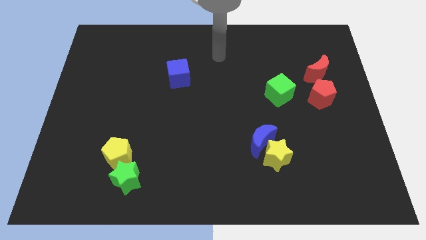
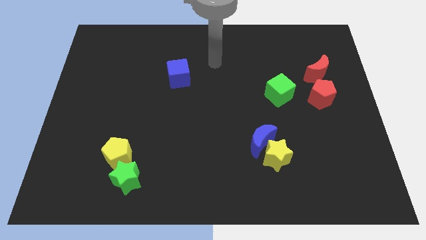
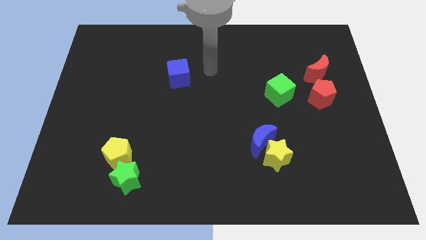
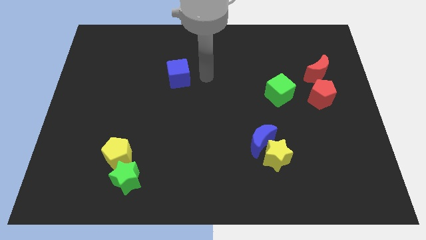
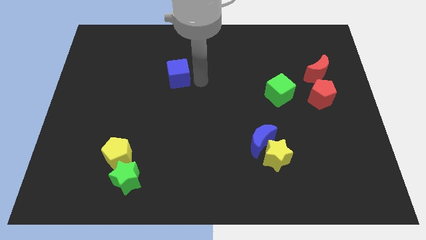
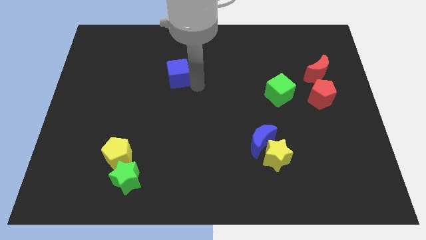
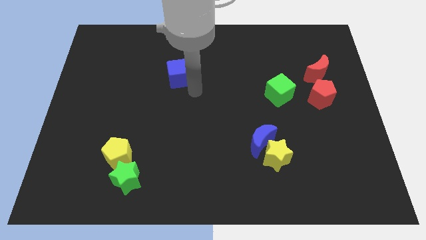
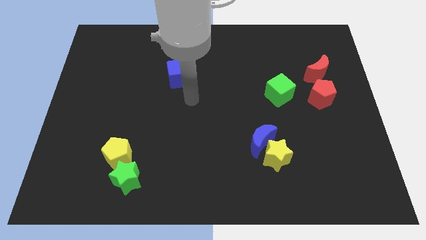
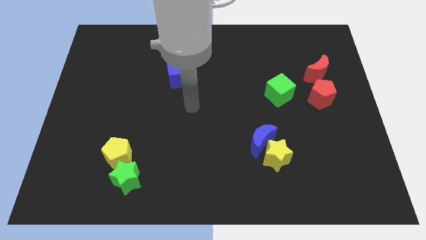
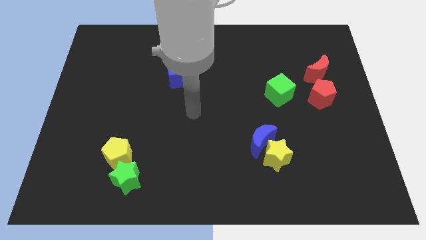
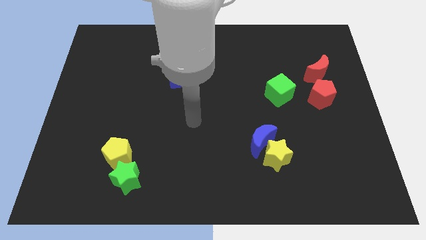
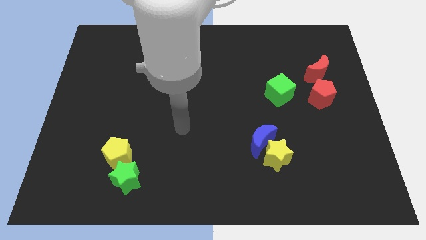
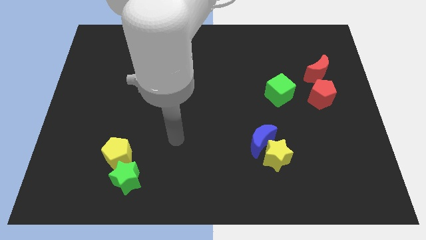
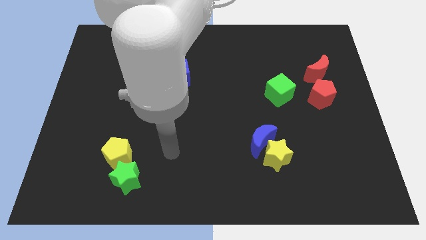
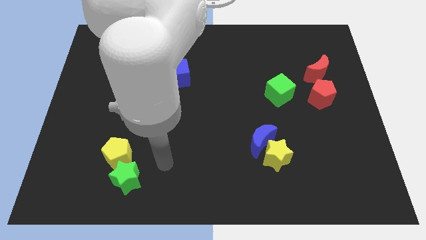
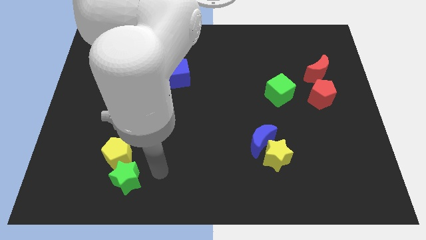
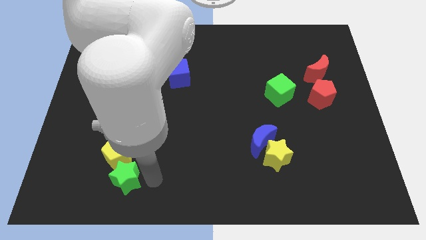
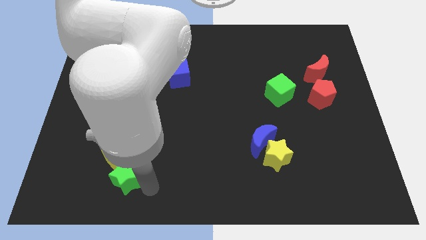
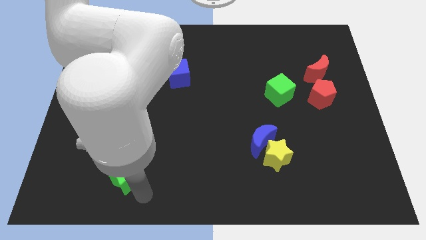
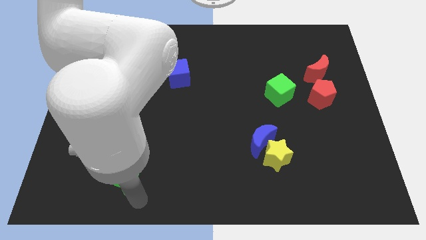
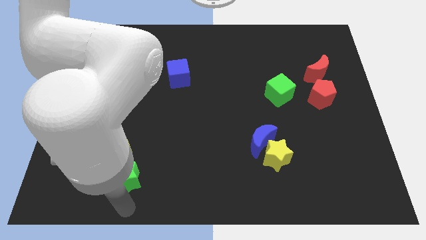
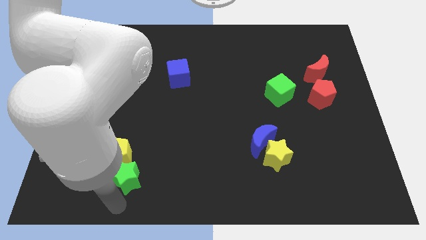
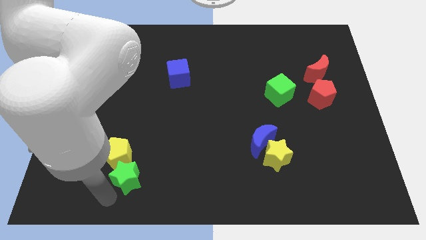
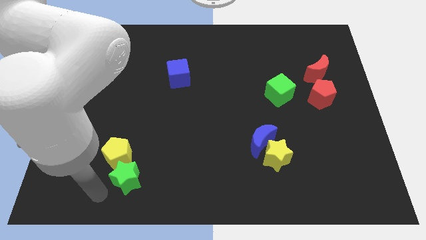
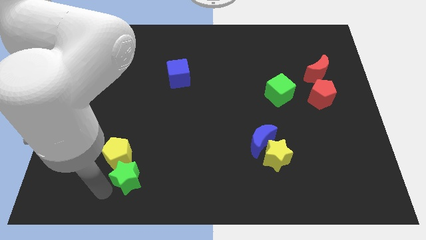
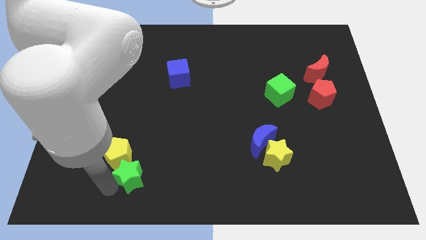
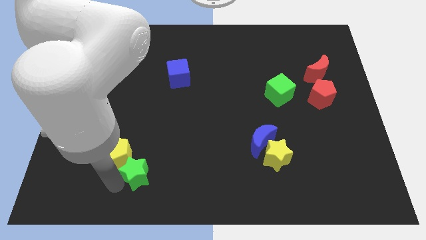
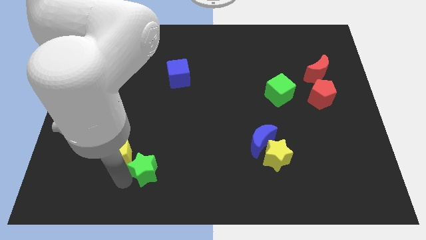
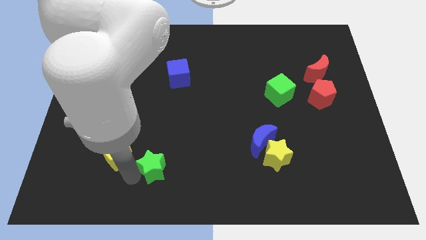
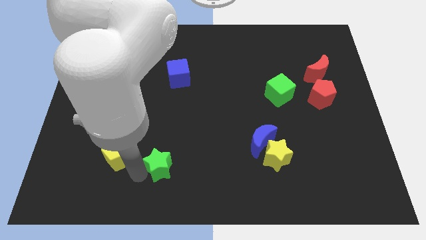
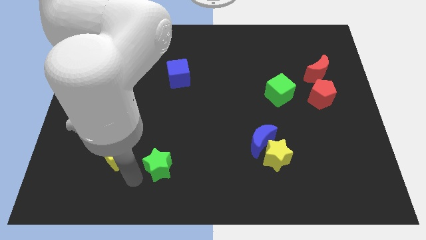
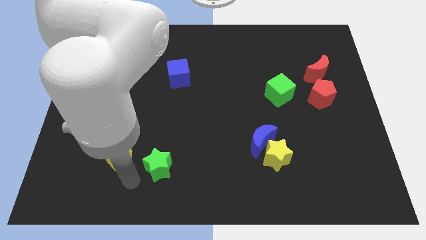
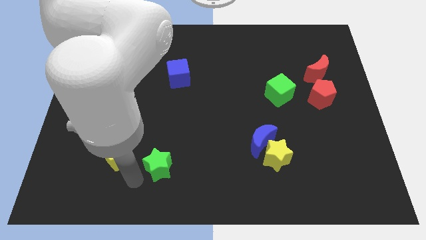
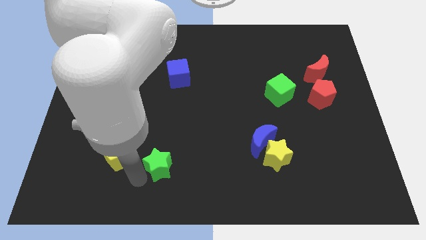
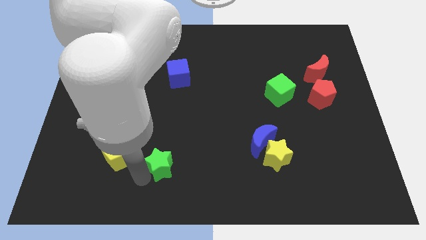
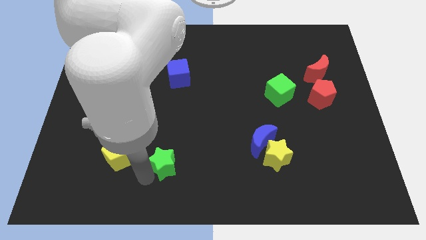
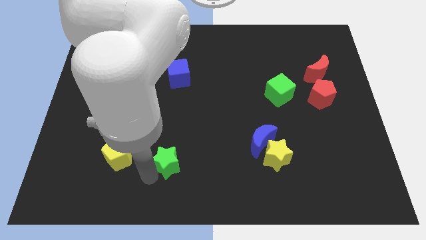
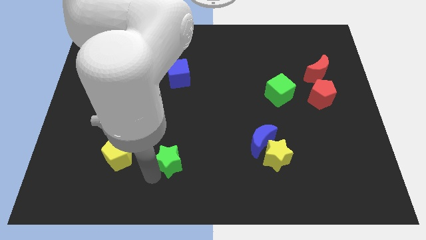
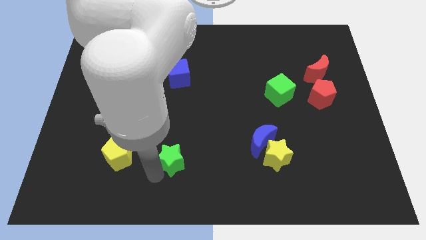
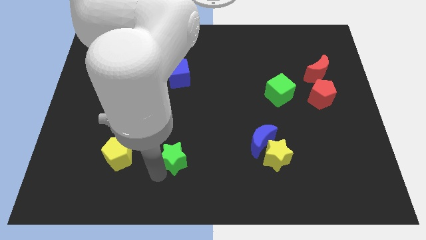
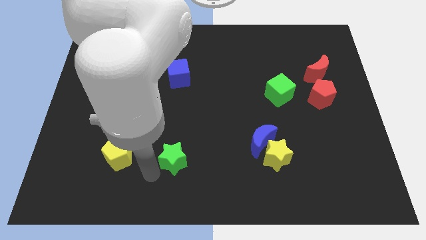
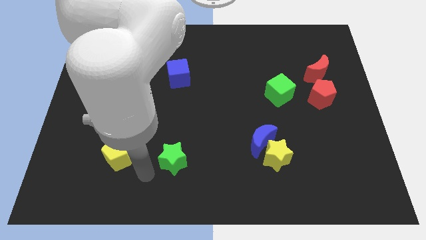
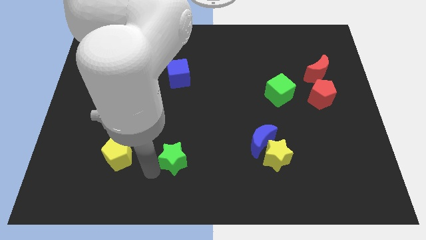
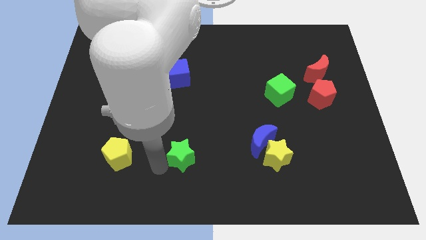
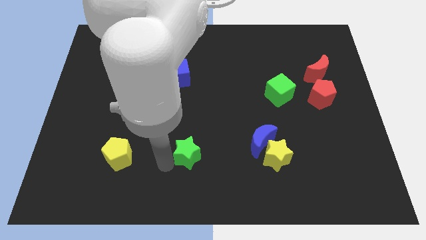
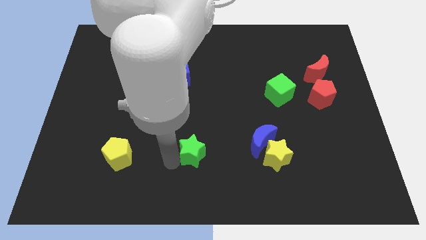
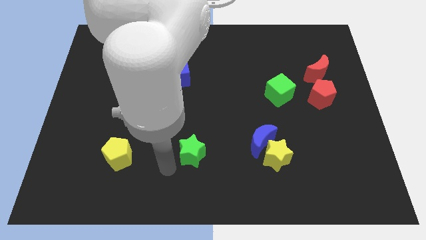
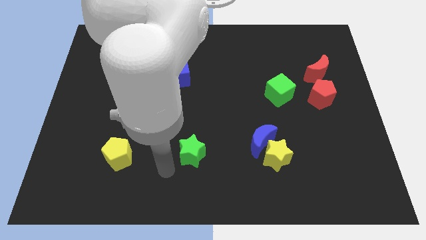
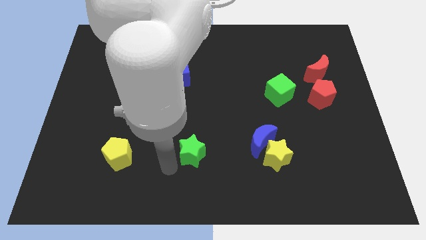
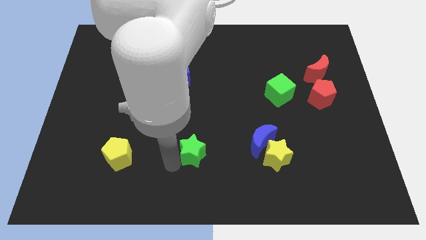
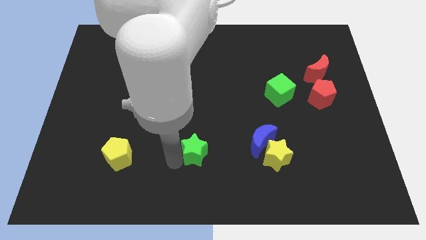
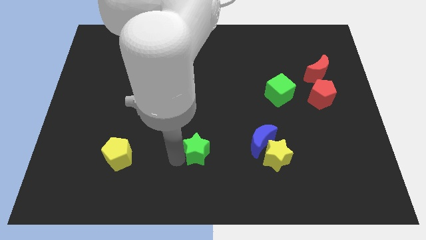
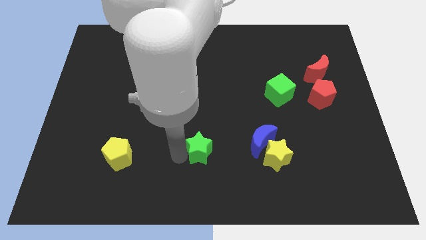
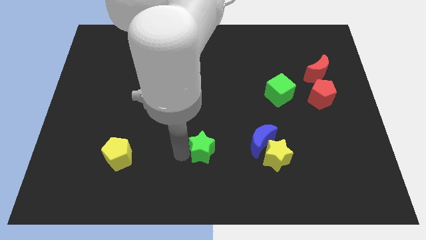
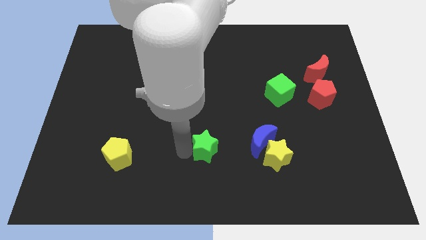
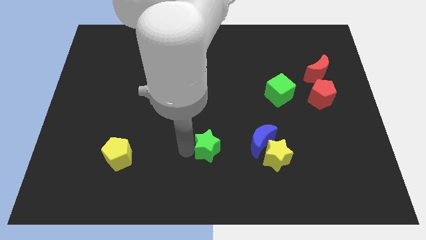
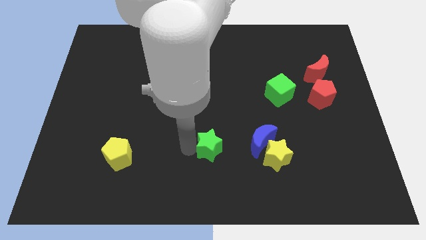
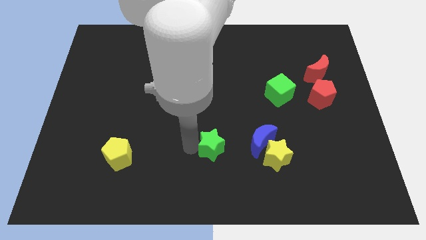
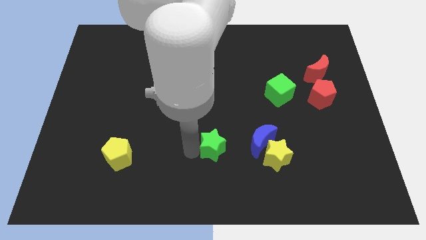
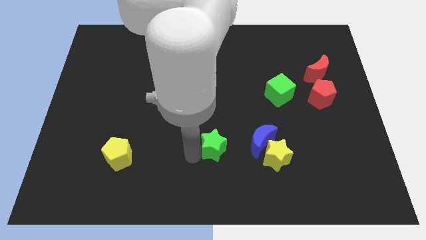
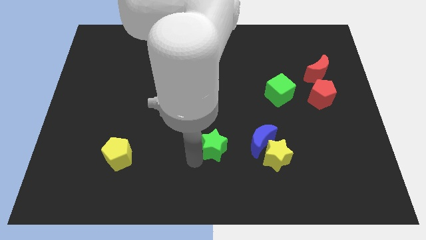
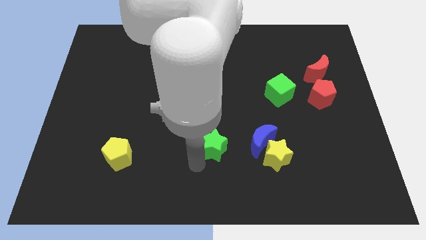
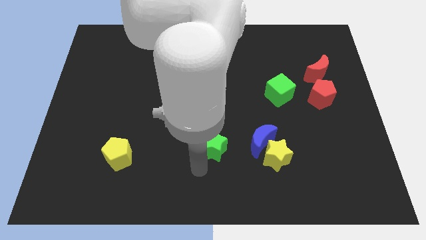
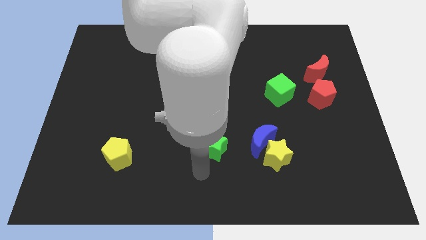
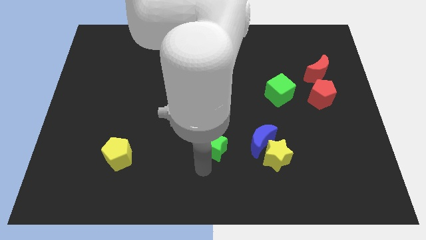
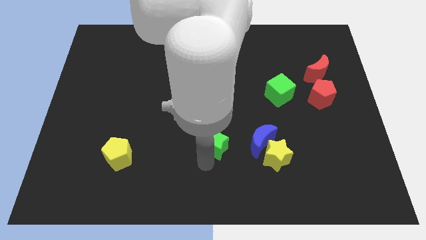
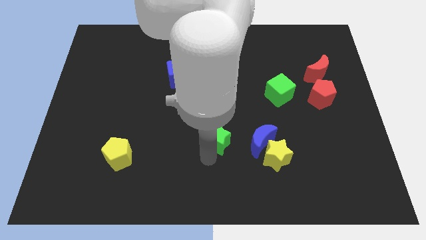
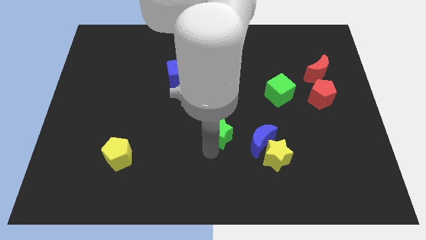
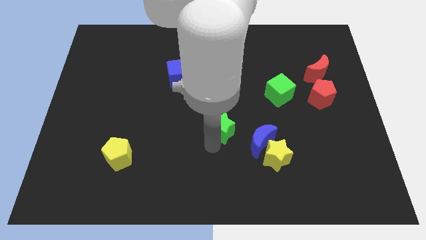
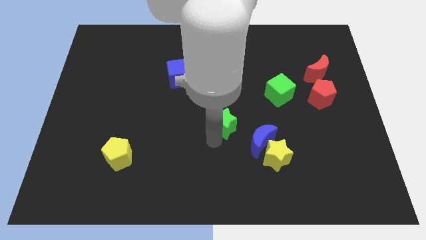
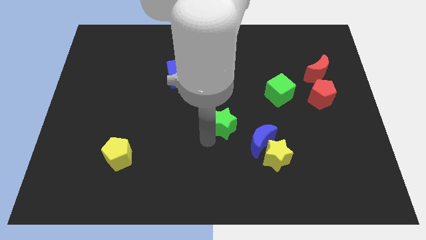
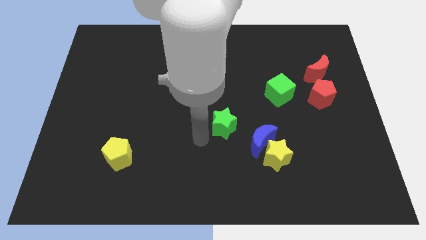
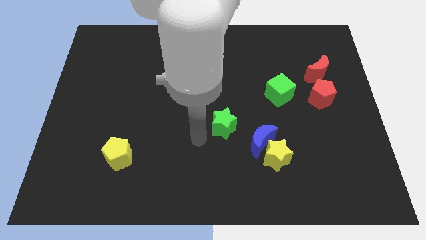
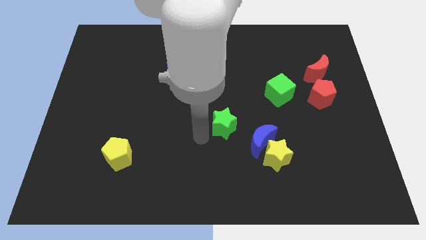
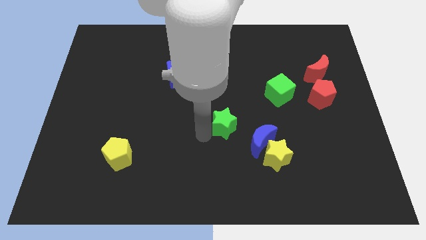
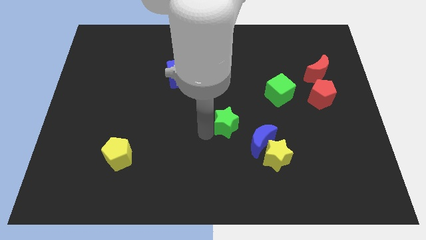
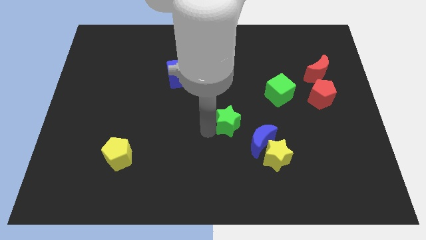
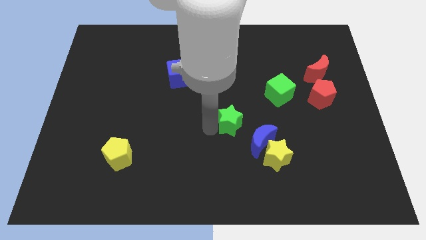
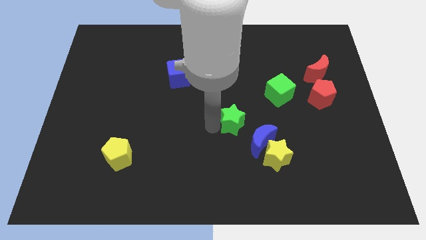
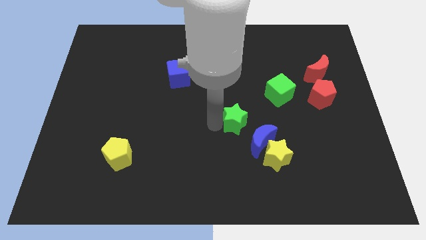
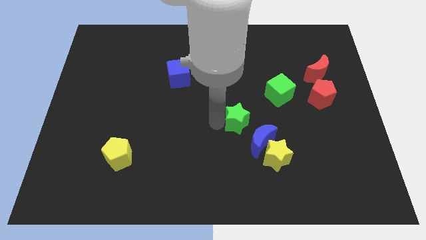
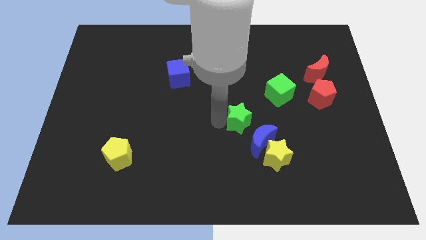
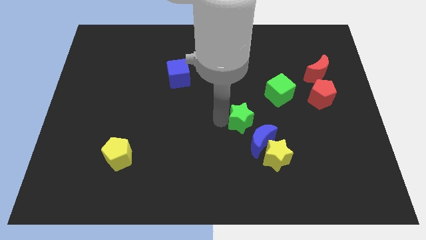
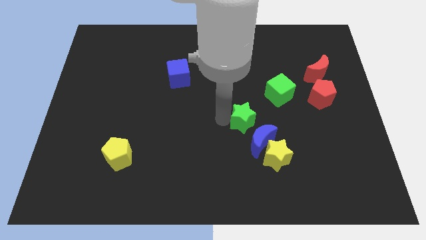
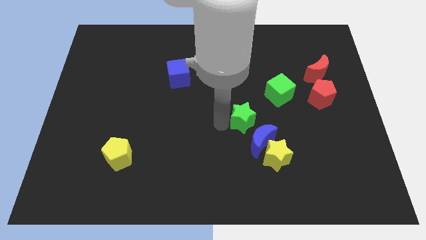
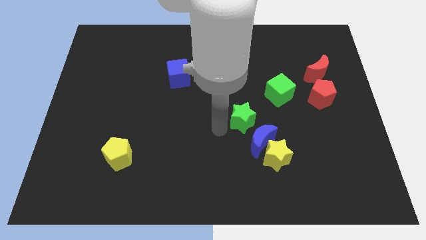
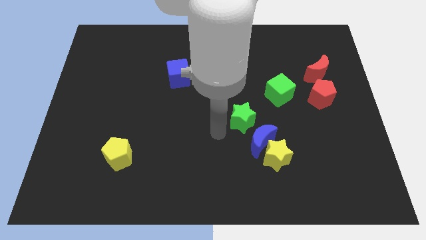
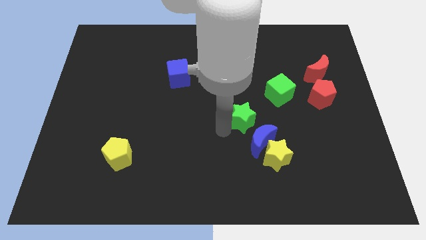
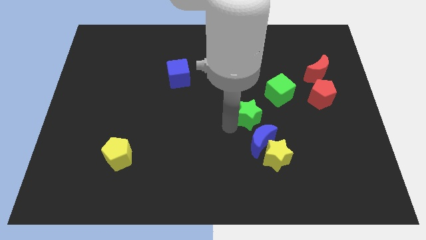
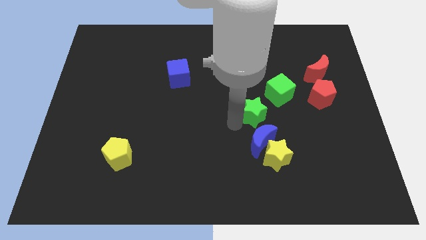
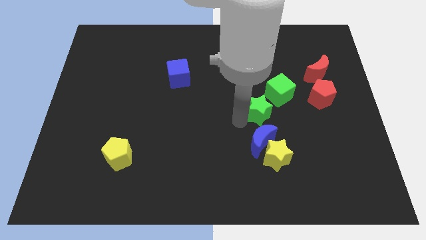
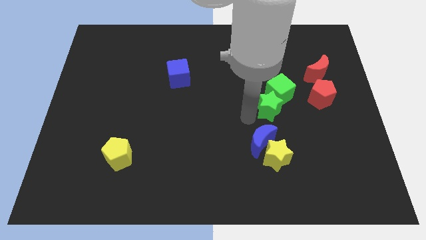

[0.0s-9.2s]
put the green star towards the green cube
